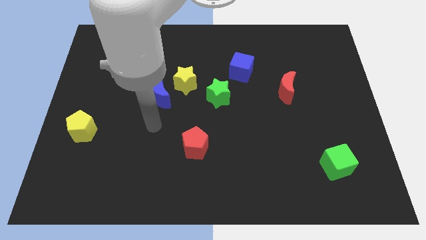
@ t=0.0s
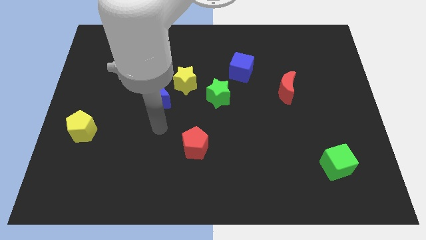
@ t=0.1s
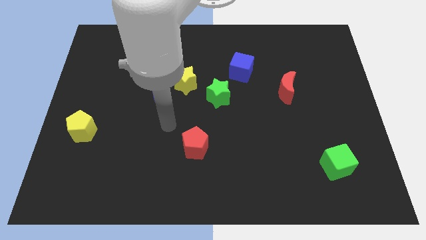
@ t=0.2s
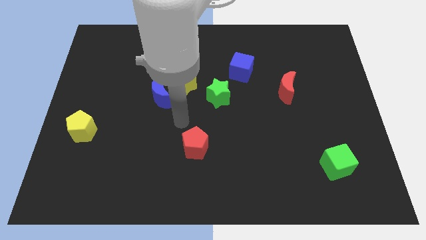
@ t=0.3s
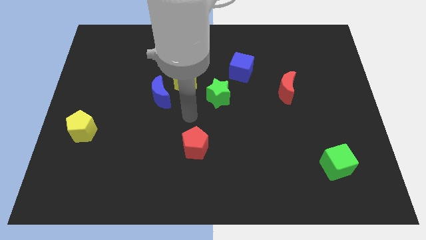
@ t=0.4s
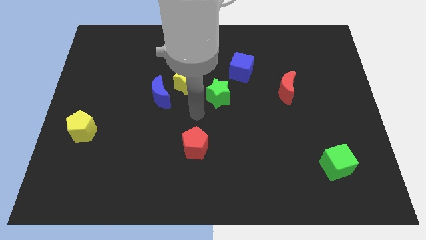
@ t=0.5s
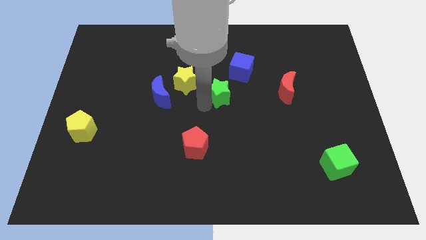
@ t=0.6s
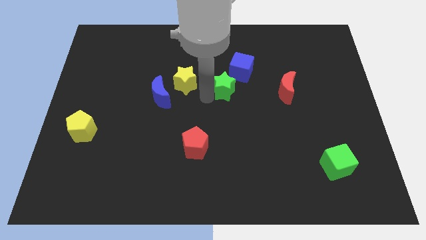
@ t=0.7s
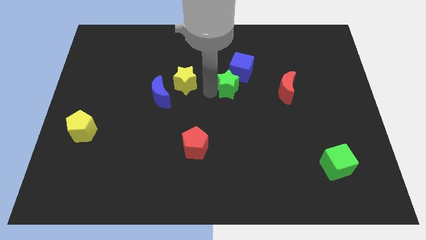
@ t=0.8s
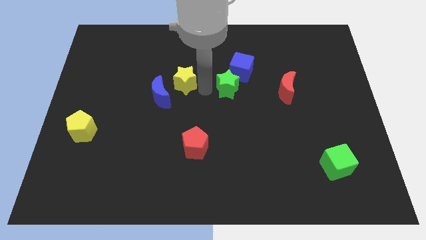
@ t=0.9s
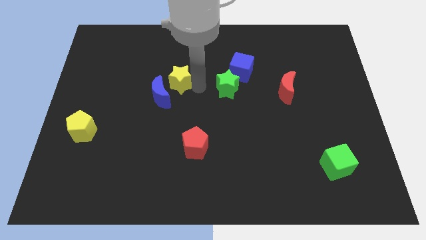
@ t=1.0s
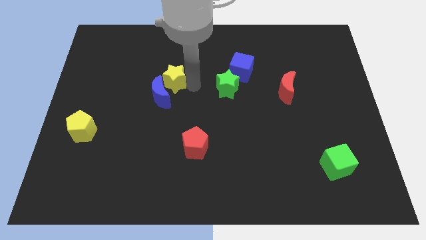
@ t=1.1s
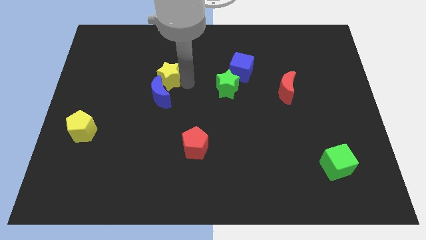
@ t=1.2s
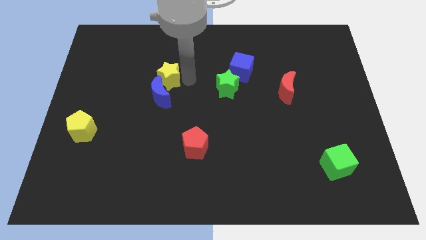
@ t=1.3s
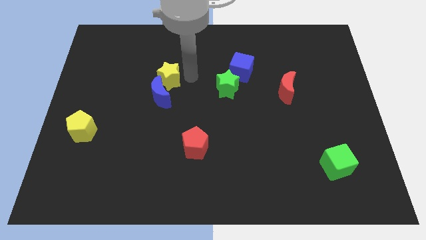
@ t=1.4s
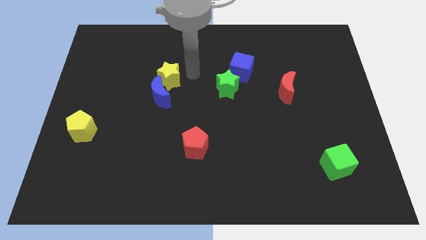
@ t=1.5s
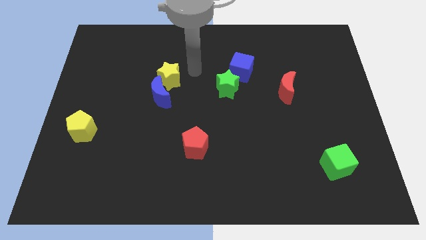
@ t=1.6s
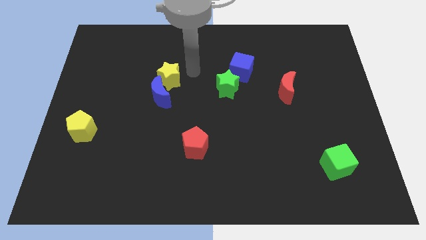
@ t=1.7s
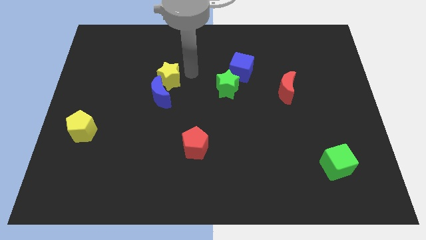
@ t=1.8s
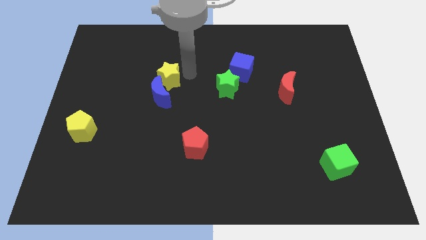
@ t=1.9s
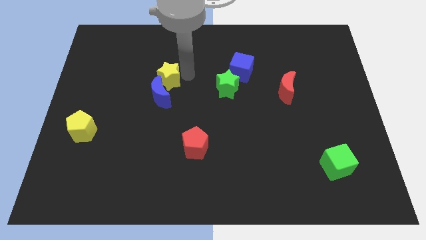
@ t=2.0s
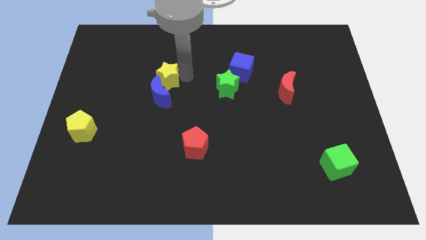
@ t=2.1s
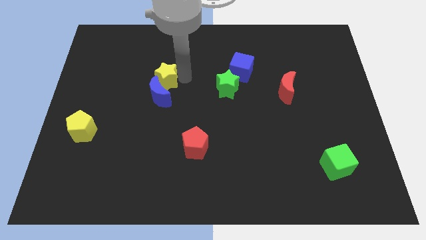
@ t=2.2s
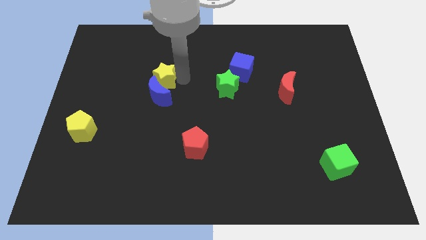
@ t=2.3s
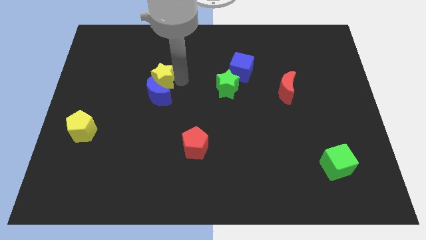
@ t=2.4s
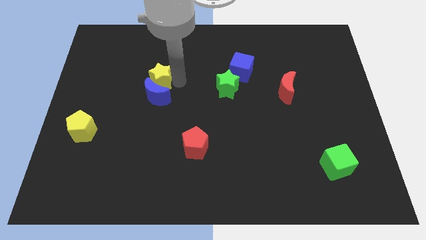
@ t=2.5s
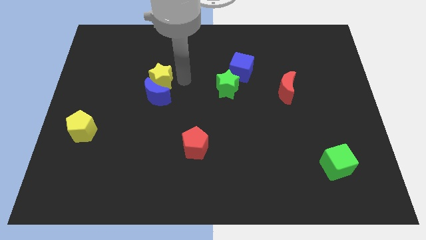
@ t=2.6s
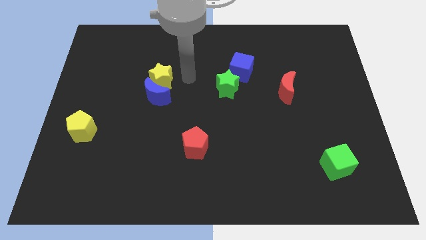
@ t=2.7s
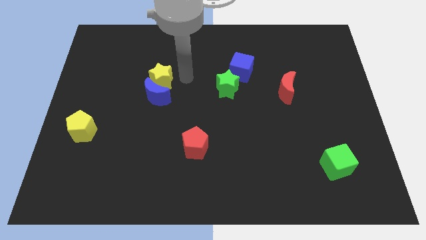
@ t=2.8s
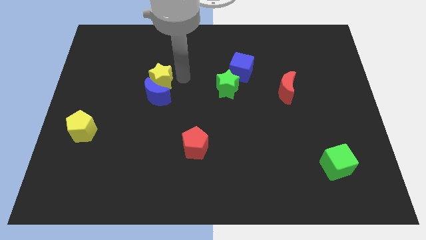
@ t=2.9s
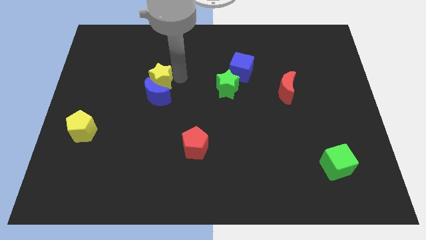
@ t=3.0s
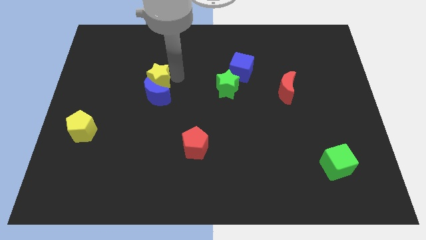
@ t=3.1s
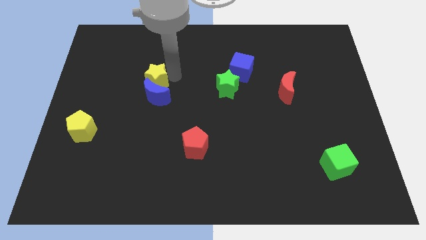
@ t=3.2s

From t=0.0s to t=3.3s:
move the yellow star to the left slightly

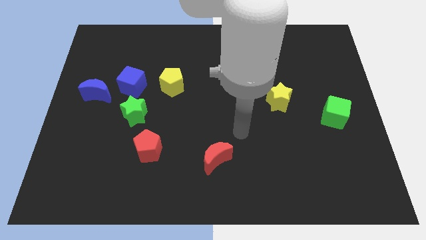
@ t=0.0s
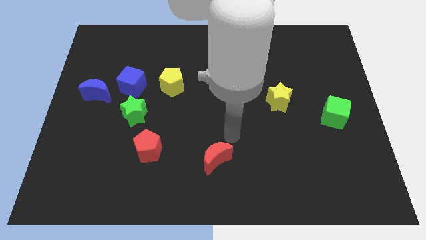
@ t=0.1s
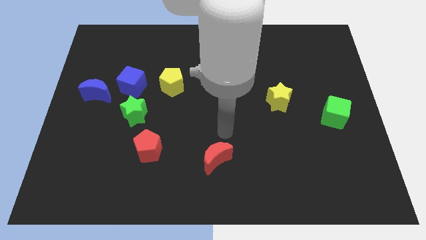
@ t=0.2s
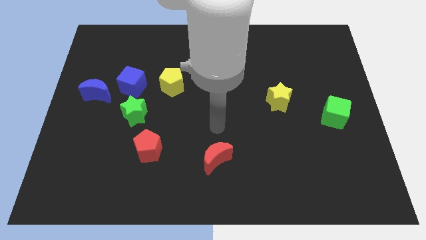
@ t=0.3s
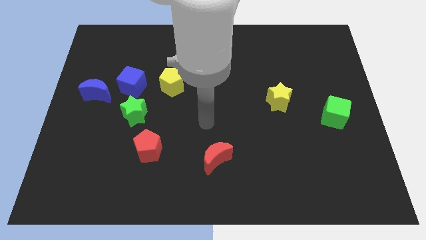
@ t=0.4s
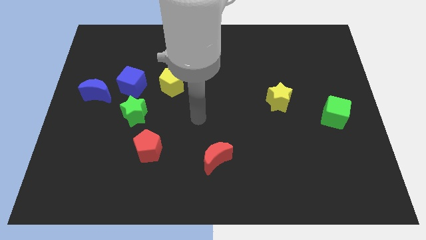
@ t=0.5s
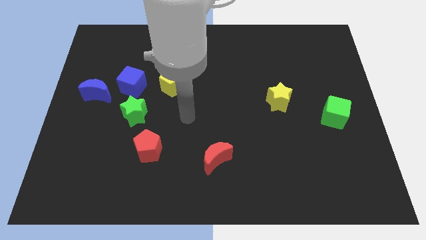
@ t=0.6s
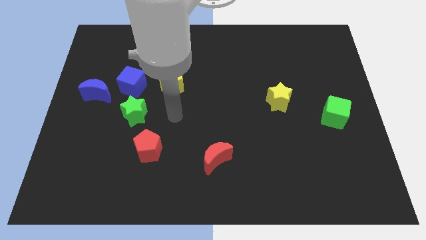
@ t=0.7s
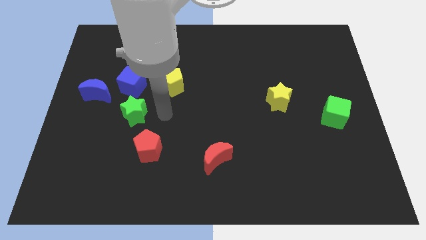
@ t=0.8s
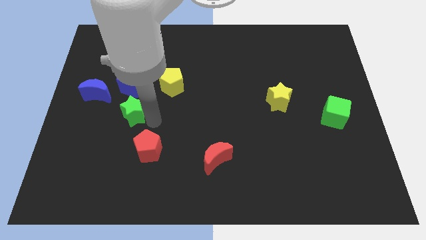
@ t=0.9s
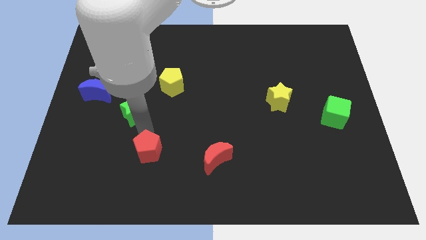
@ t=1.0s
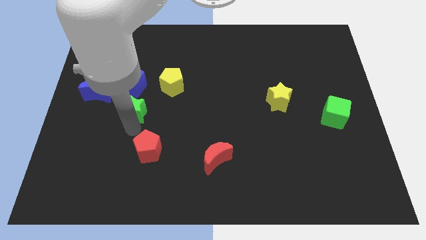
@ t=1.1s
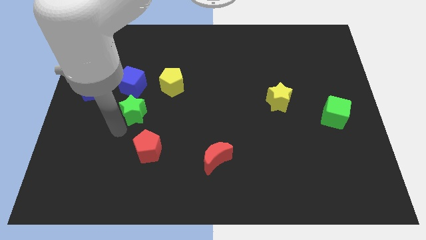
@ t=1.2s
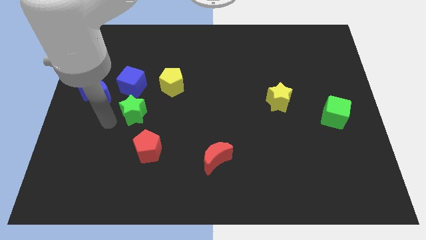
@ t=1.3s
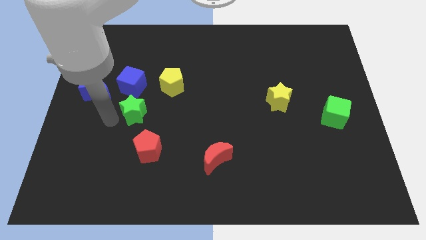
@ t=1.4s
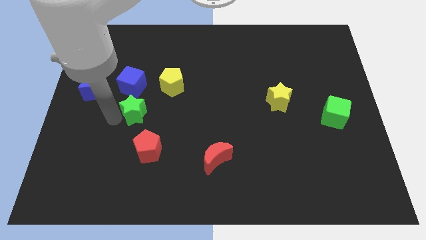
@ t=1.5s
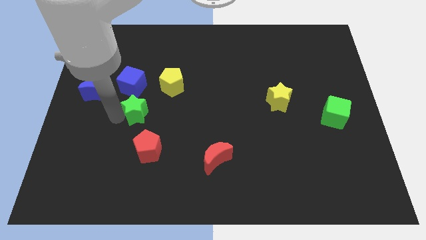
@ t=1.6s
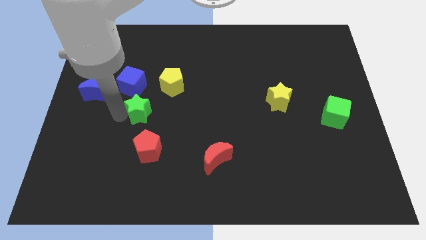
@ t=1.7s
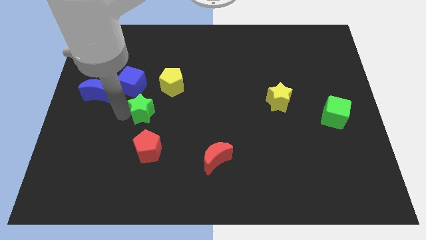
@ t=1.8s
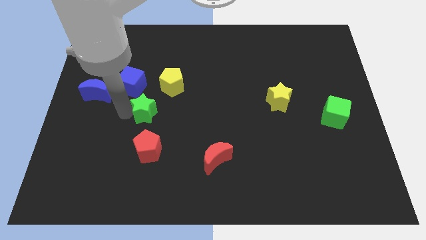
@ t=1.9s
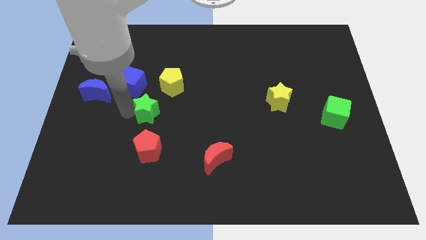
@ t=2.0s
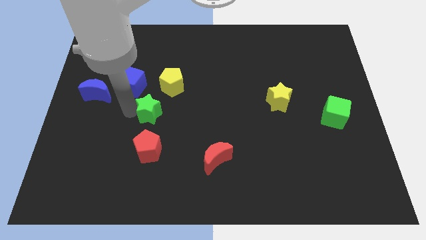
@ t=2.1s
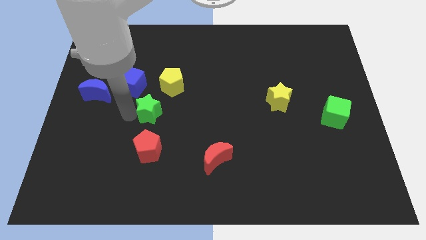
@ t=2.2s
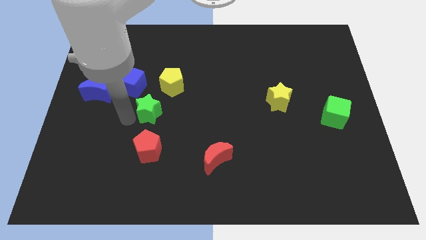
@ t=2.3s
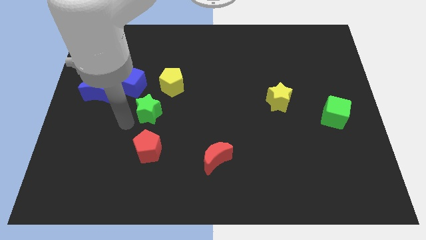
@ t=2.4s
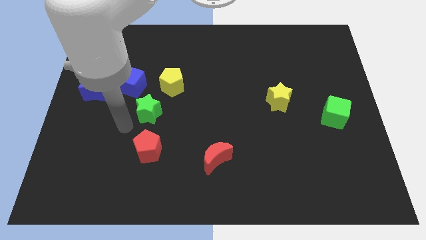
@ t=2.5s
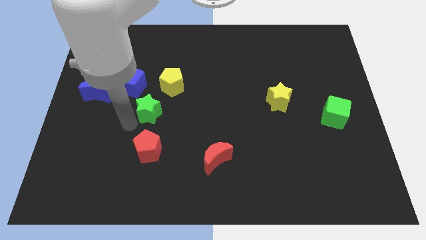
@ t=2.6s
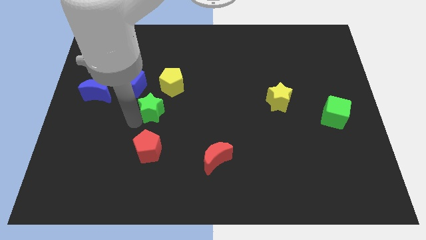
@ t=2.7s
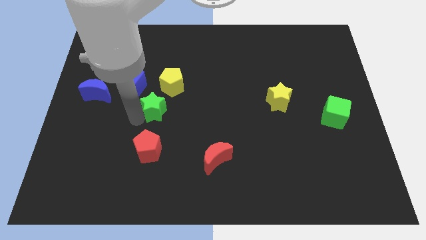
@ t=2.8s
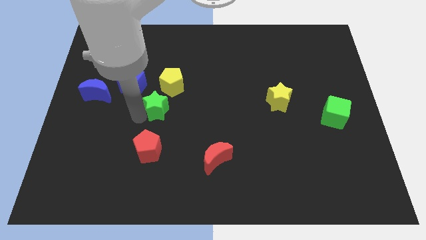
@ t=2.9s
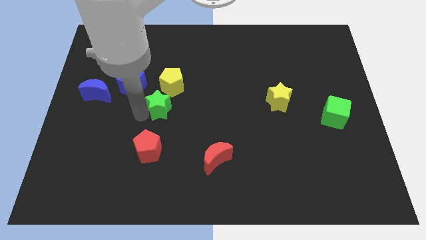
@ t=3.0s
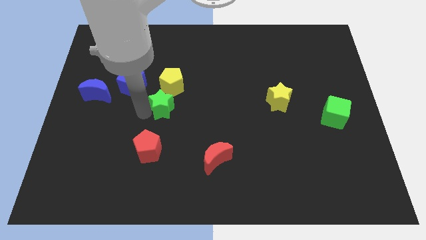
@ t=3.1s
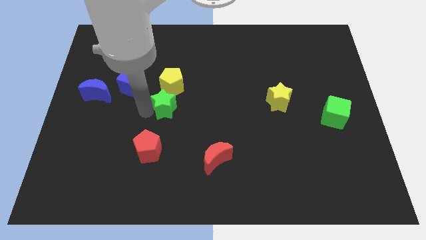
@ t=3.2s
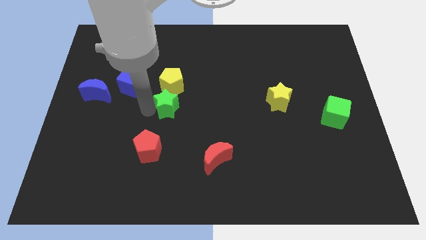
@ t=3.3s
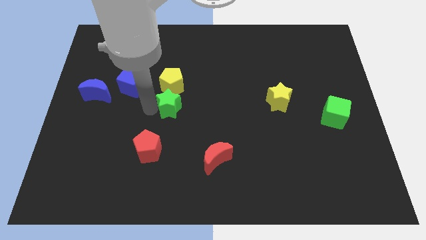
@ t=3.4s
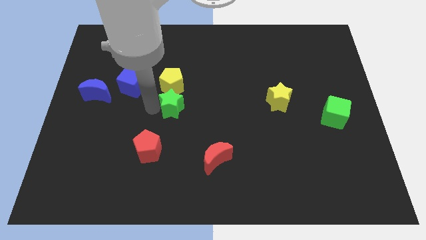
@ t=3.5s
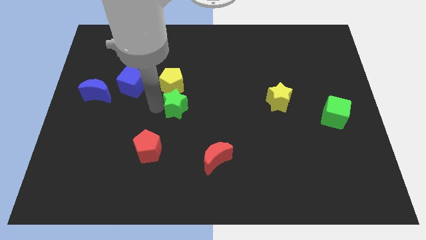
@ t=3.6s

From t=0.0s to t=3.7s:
slide the green star upwards and to the right diagonally a bit

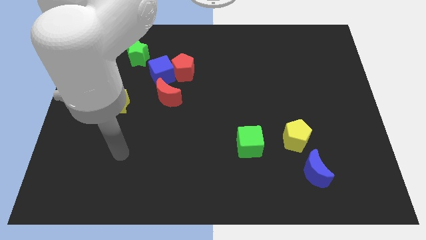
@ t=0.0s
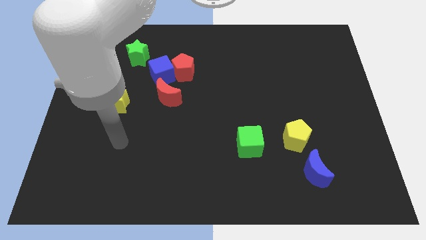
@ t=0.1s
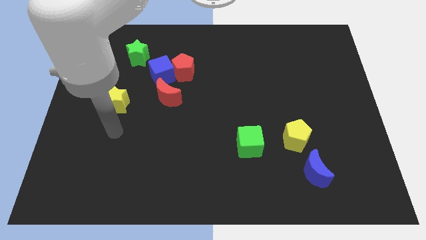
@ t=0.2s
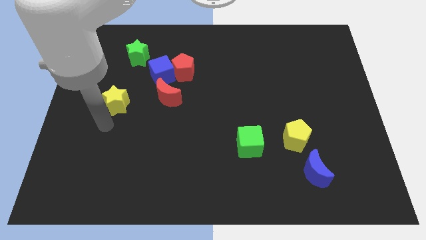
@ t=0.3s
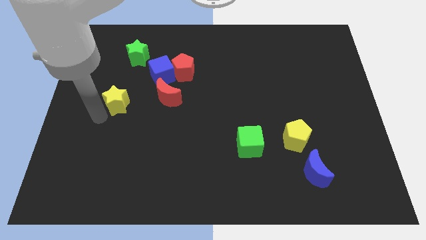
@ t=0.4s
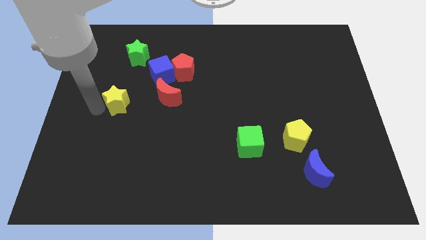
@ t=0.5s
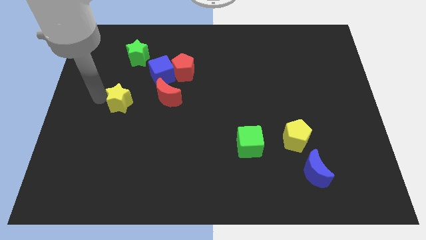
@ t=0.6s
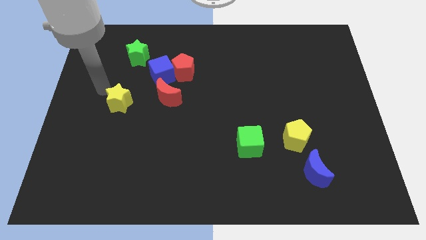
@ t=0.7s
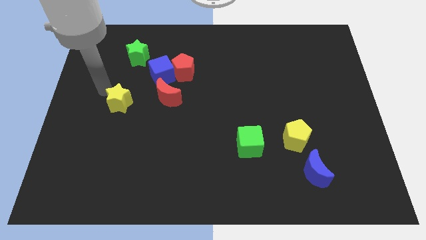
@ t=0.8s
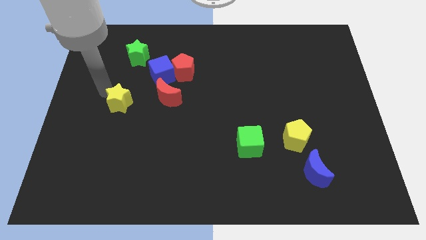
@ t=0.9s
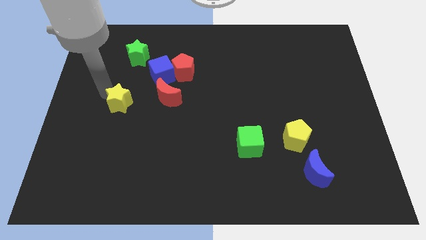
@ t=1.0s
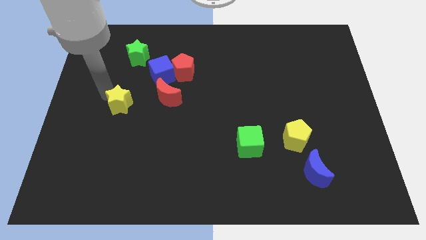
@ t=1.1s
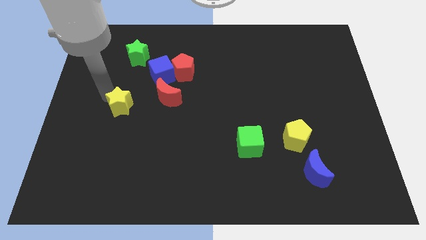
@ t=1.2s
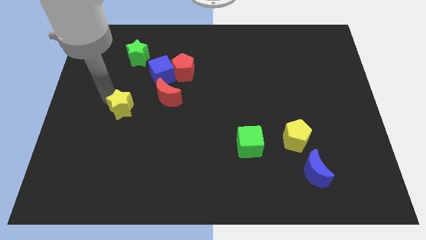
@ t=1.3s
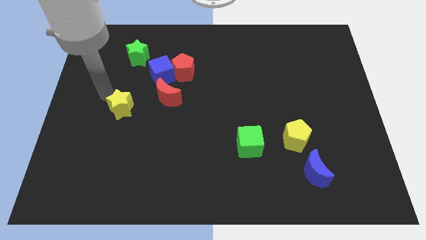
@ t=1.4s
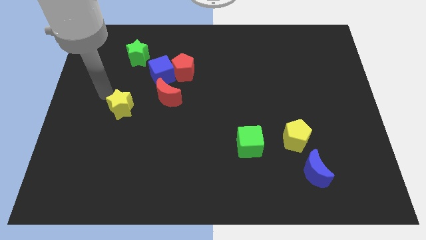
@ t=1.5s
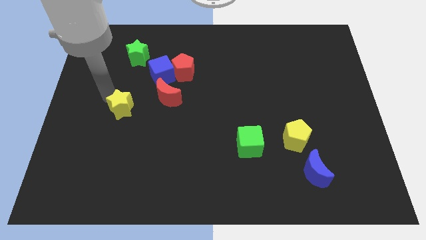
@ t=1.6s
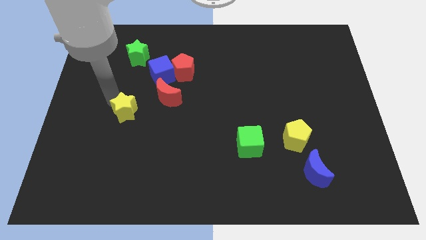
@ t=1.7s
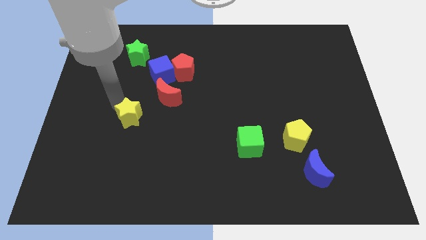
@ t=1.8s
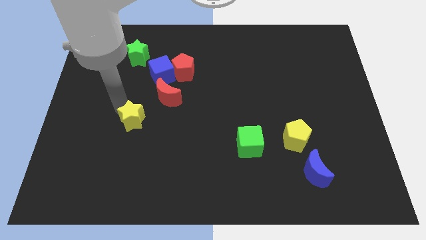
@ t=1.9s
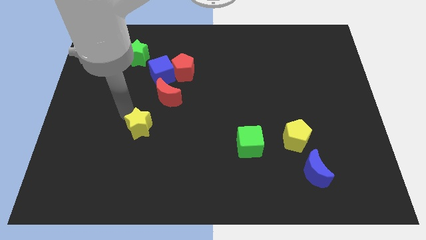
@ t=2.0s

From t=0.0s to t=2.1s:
move the yellow star downwards and right somewhat
